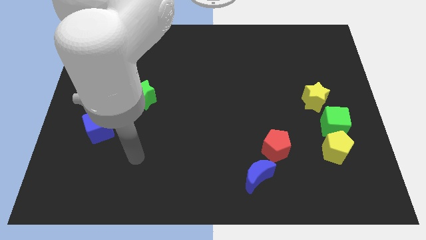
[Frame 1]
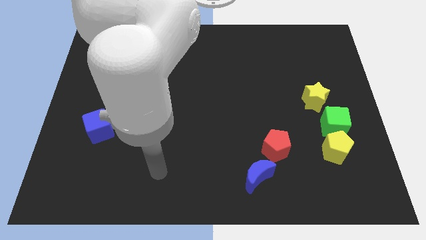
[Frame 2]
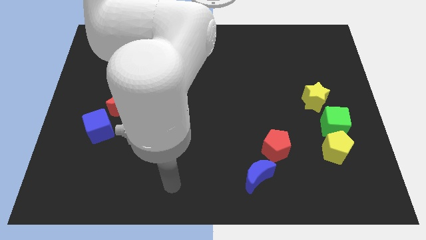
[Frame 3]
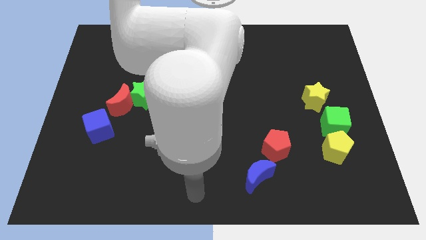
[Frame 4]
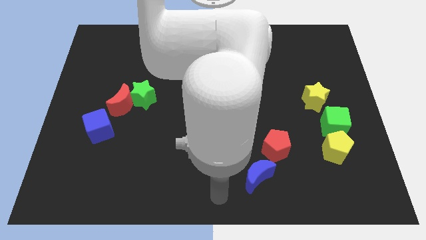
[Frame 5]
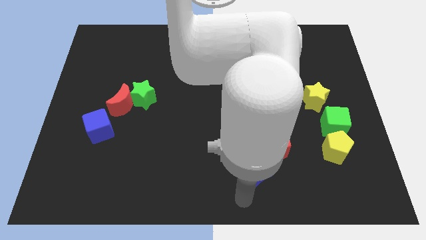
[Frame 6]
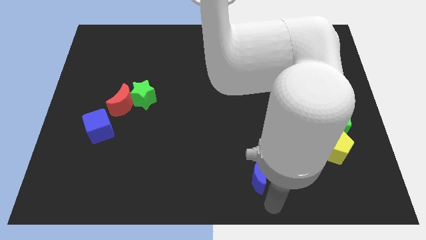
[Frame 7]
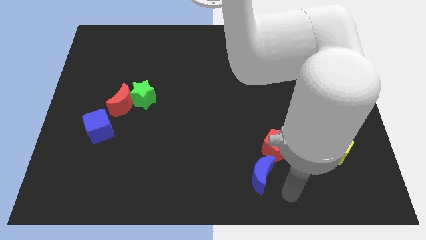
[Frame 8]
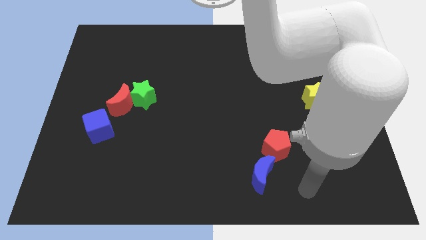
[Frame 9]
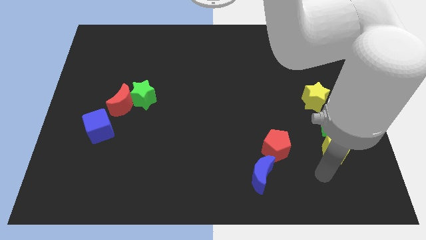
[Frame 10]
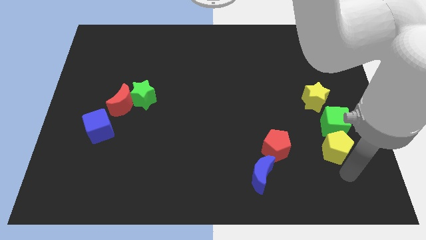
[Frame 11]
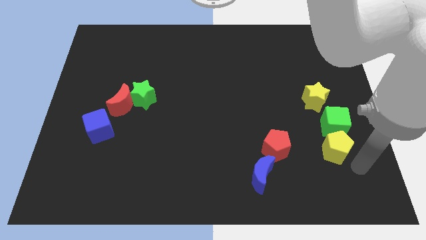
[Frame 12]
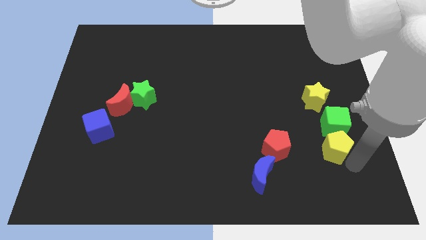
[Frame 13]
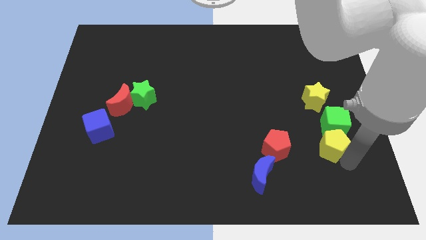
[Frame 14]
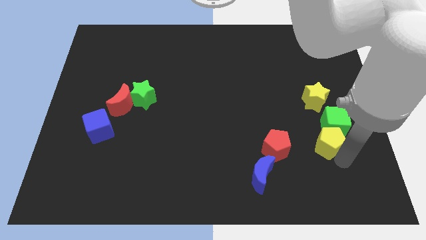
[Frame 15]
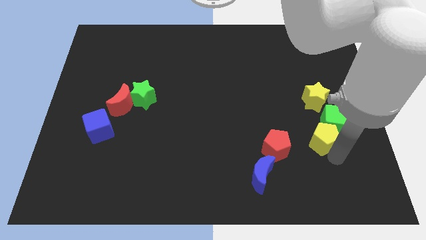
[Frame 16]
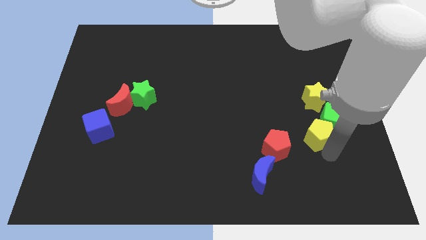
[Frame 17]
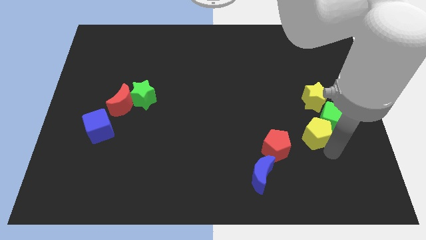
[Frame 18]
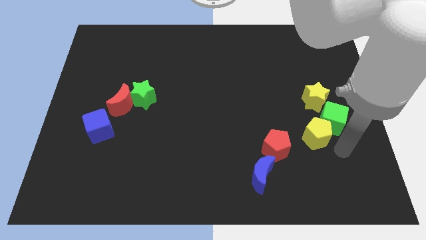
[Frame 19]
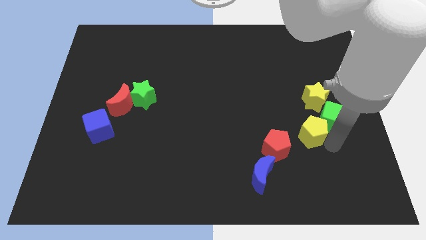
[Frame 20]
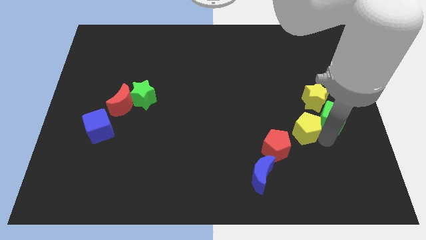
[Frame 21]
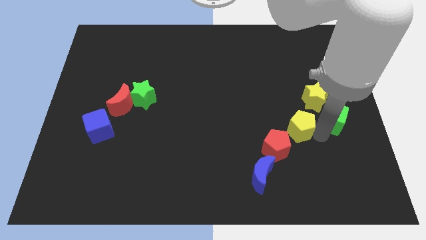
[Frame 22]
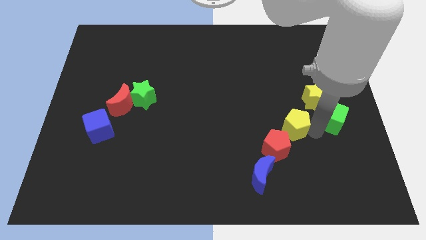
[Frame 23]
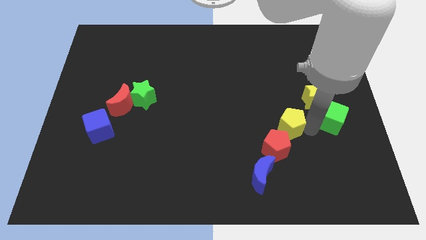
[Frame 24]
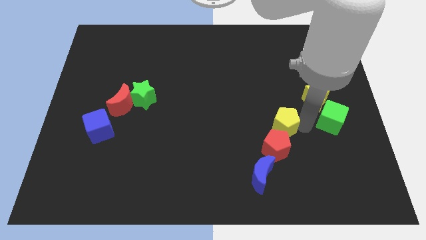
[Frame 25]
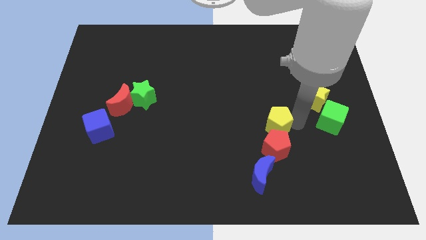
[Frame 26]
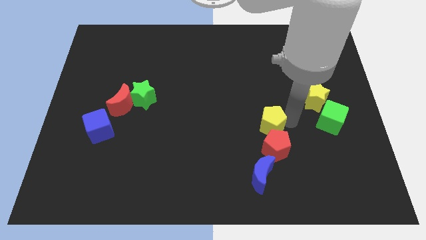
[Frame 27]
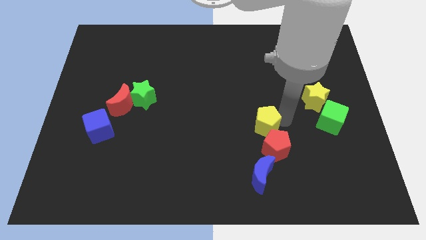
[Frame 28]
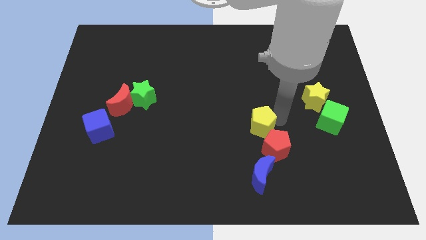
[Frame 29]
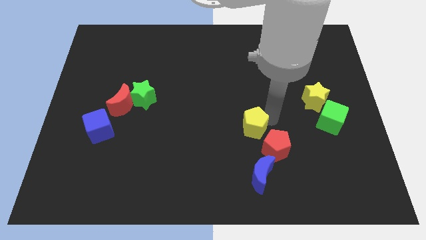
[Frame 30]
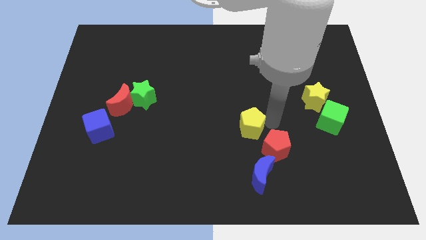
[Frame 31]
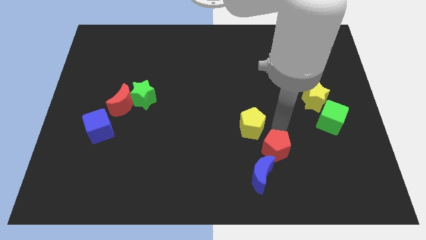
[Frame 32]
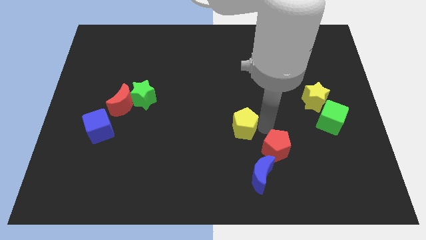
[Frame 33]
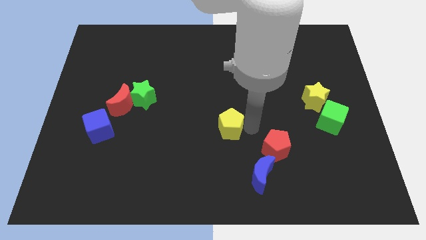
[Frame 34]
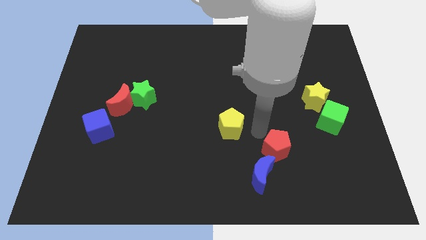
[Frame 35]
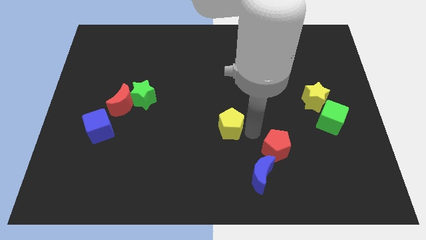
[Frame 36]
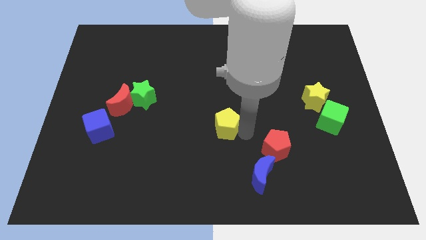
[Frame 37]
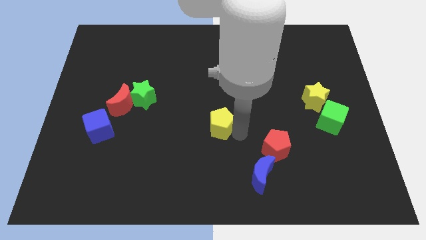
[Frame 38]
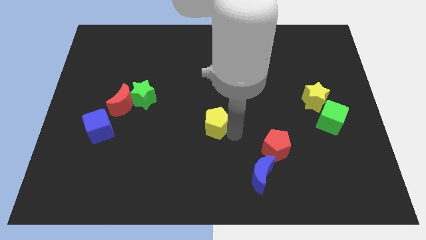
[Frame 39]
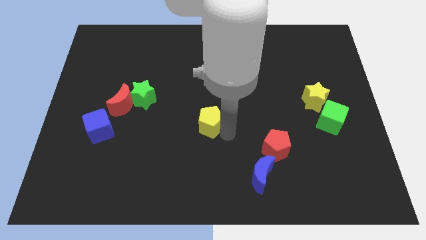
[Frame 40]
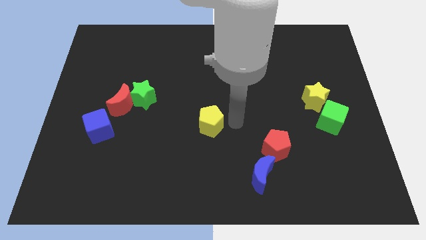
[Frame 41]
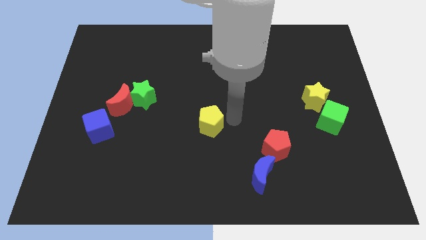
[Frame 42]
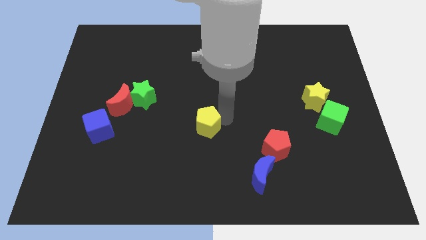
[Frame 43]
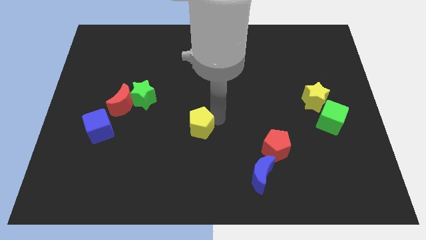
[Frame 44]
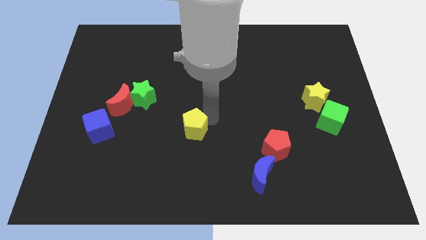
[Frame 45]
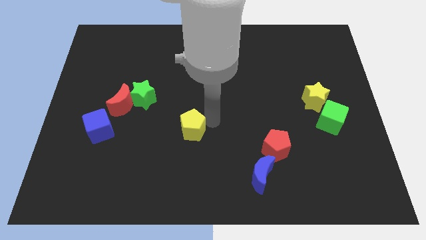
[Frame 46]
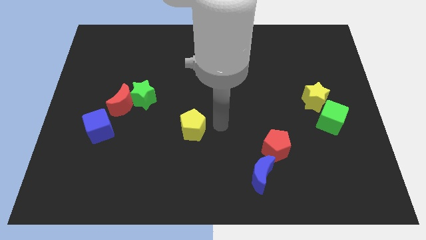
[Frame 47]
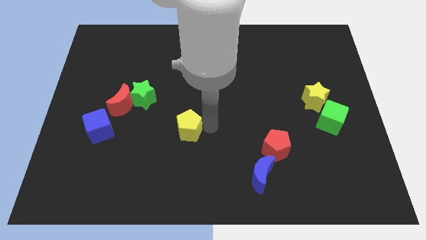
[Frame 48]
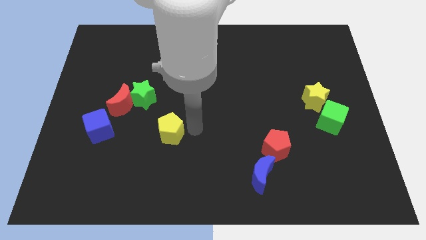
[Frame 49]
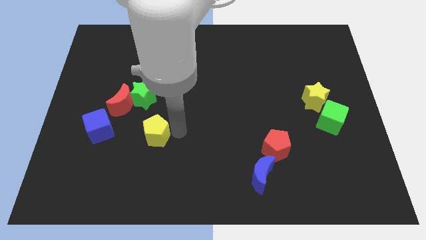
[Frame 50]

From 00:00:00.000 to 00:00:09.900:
put the yellow pentagon to the bottom of the green star

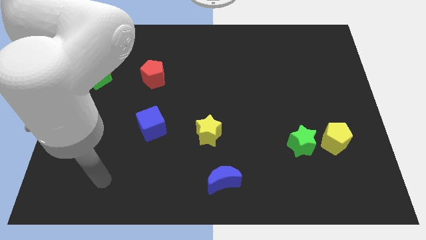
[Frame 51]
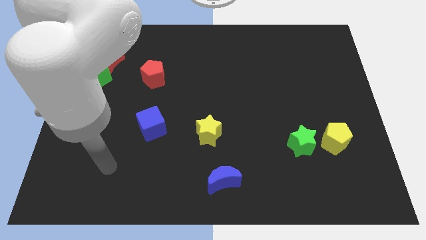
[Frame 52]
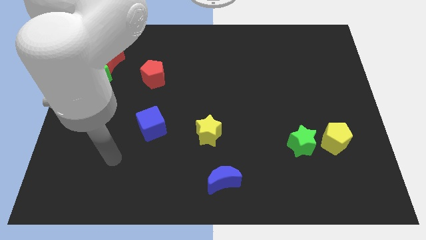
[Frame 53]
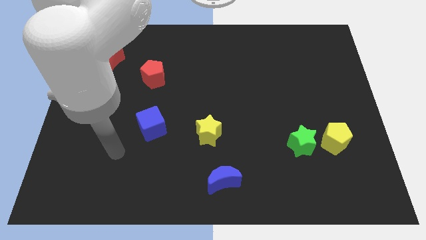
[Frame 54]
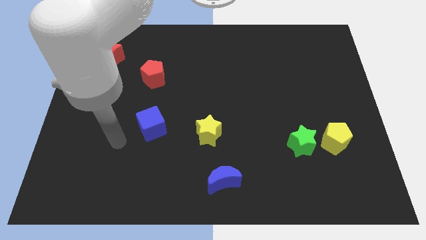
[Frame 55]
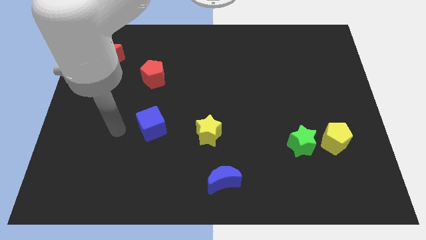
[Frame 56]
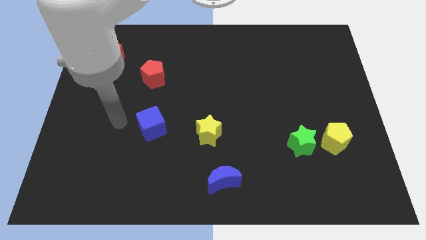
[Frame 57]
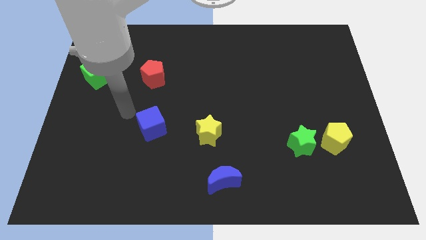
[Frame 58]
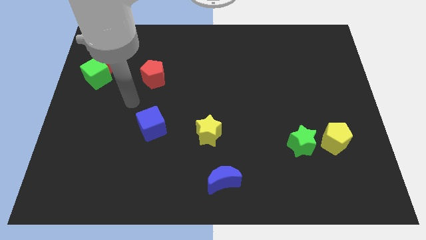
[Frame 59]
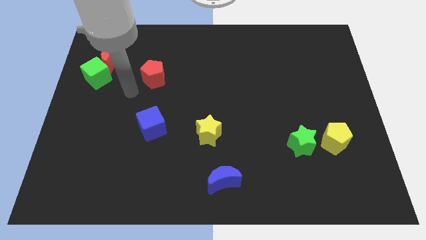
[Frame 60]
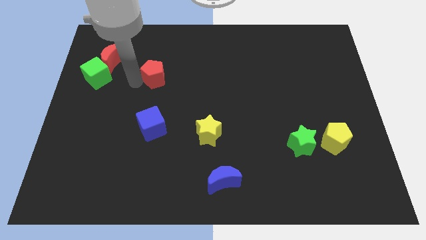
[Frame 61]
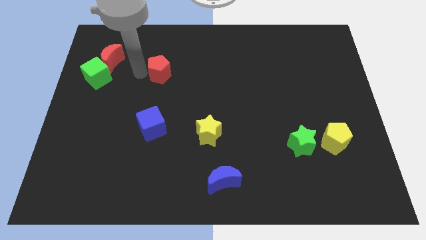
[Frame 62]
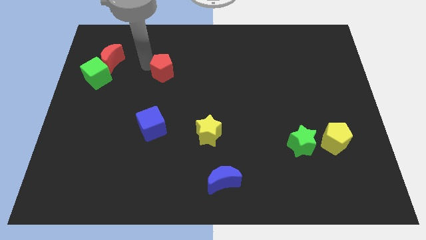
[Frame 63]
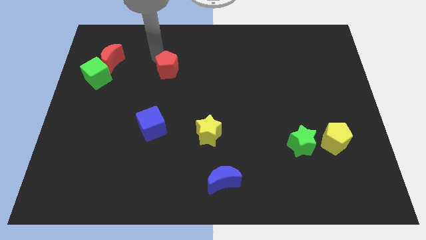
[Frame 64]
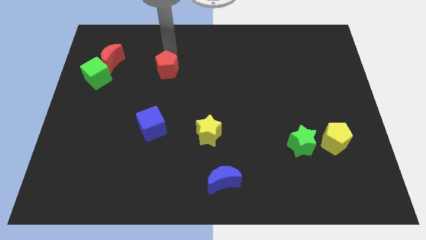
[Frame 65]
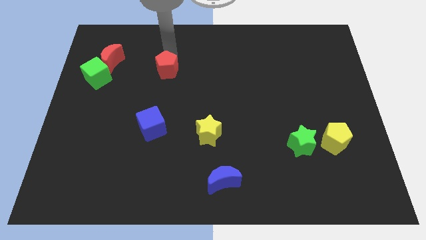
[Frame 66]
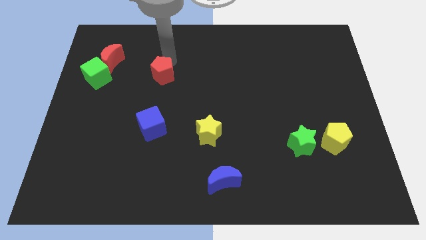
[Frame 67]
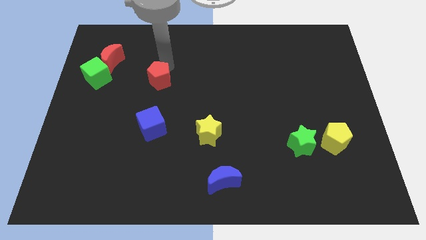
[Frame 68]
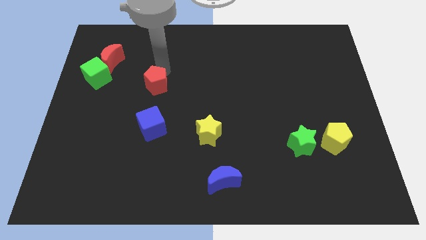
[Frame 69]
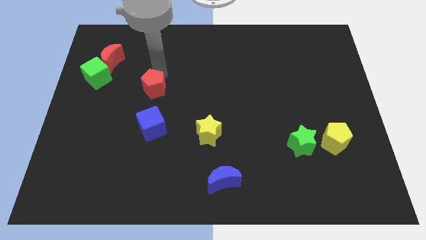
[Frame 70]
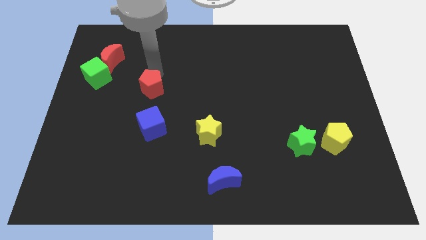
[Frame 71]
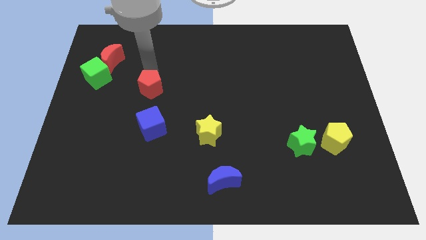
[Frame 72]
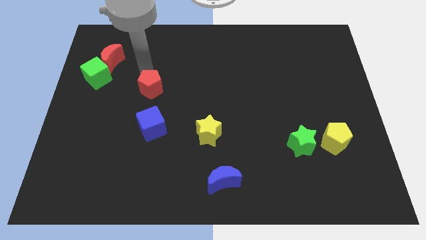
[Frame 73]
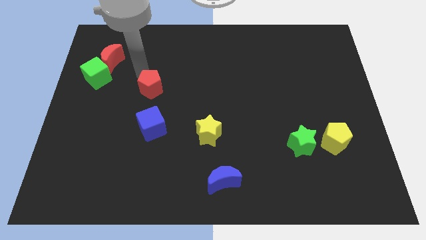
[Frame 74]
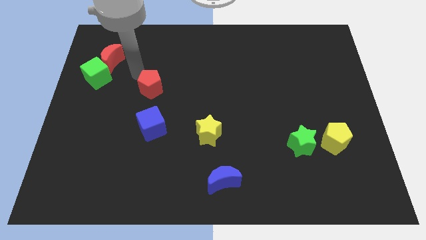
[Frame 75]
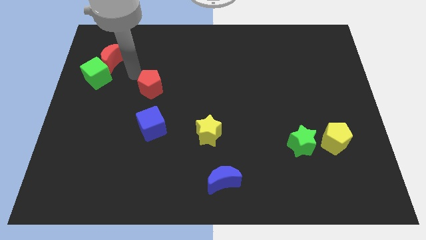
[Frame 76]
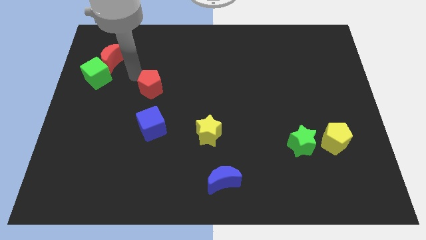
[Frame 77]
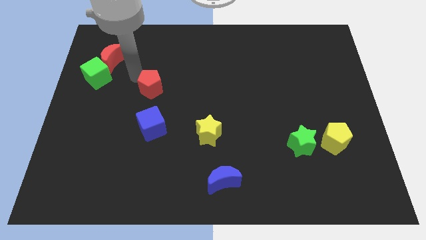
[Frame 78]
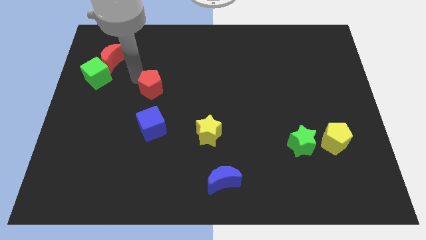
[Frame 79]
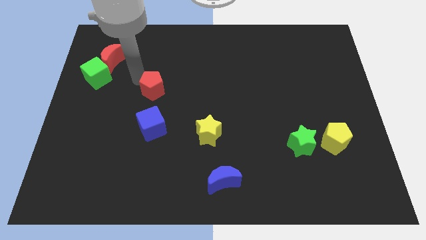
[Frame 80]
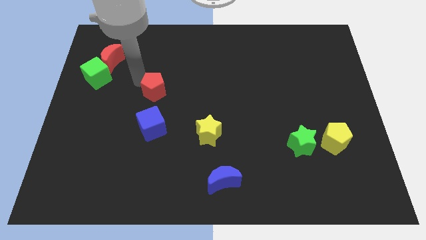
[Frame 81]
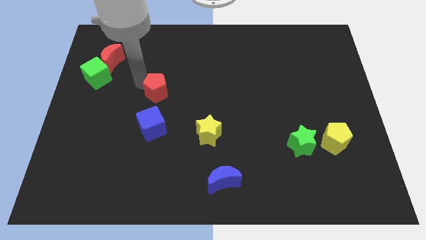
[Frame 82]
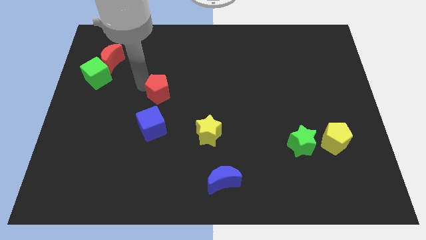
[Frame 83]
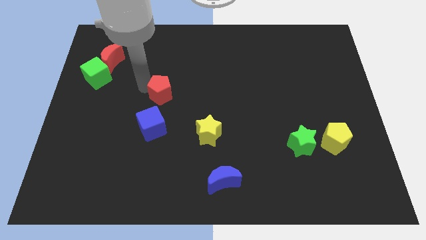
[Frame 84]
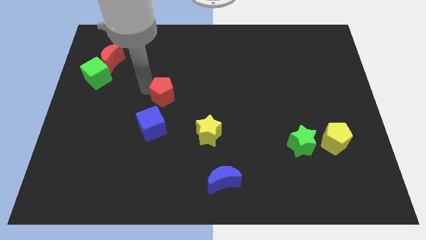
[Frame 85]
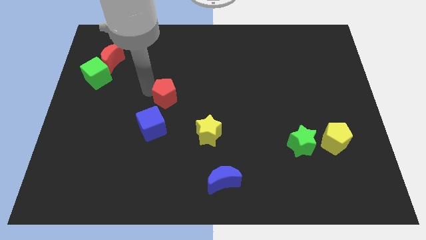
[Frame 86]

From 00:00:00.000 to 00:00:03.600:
slide the red pentagon to the top right side of the blue cube
